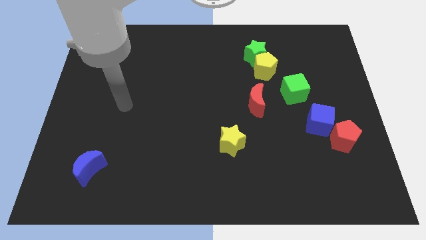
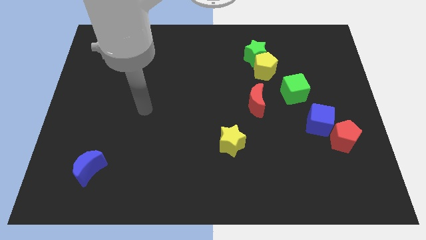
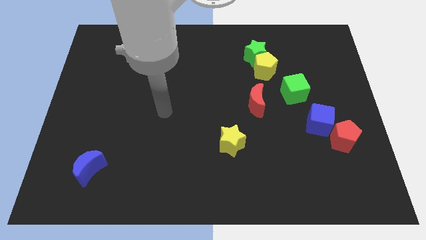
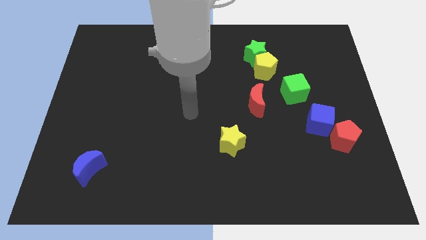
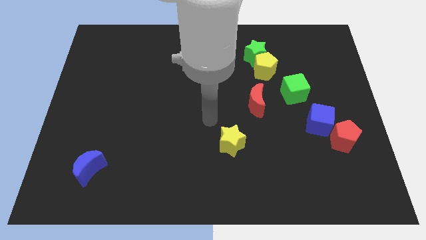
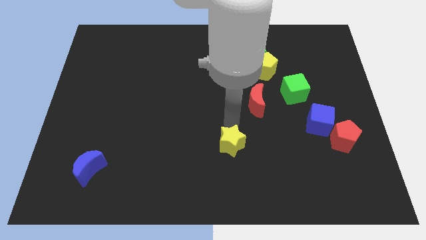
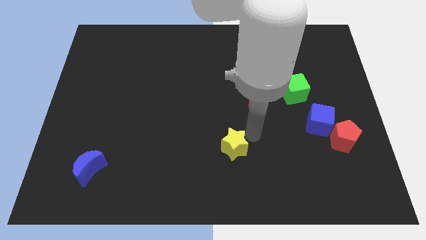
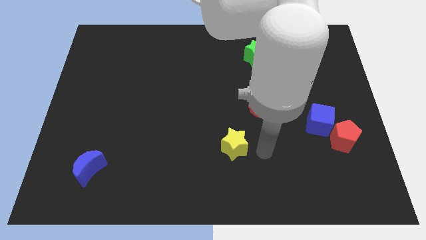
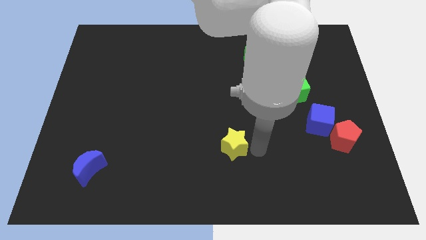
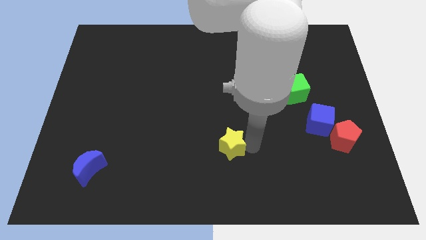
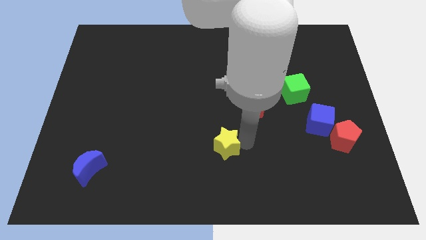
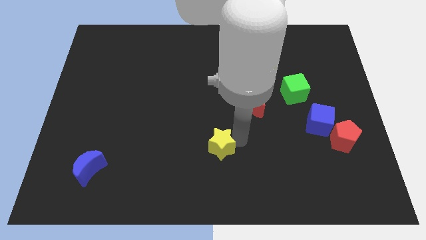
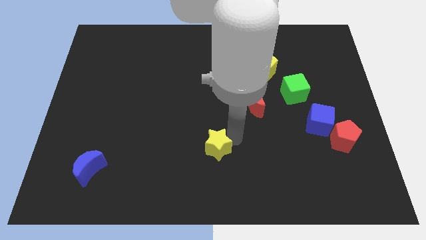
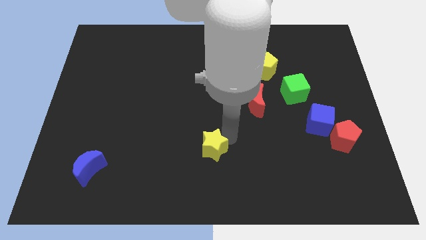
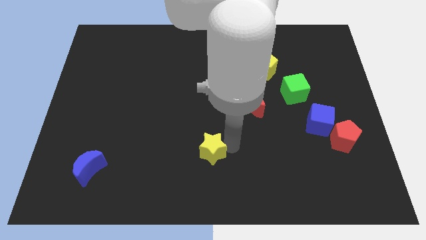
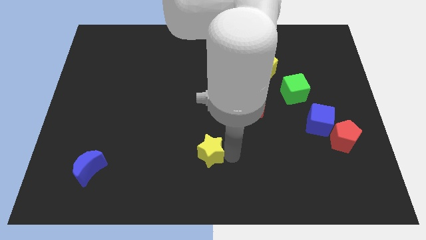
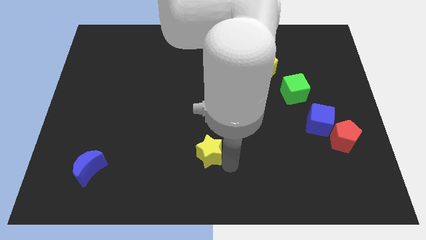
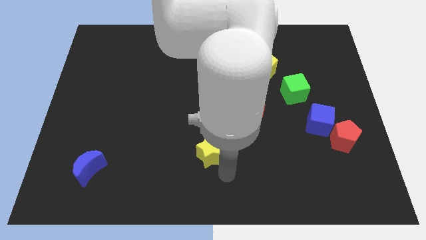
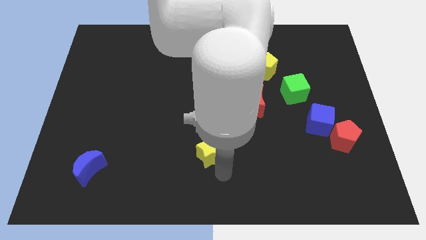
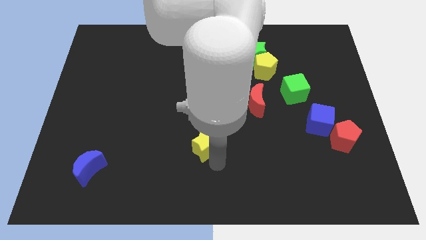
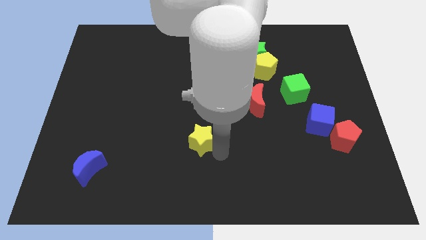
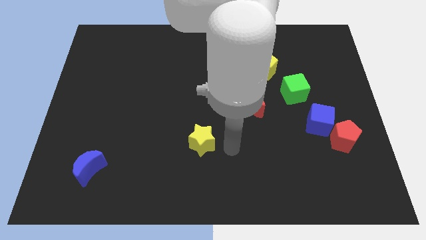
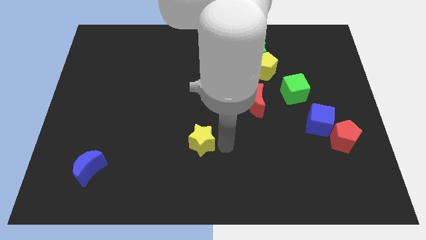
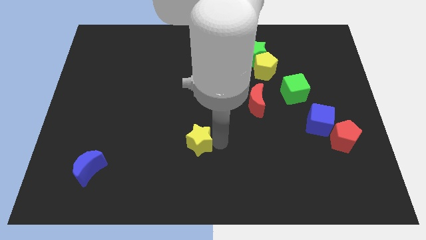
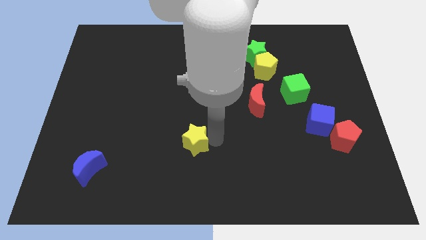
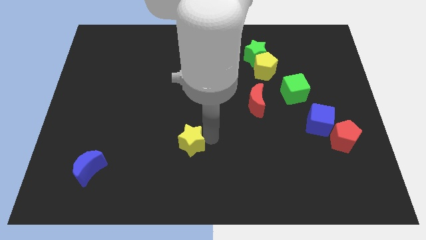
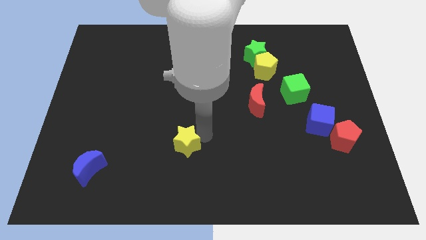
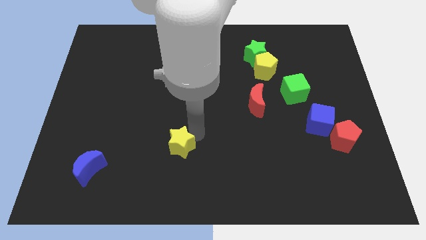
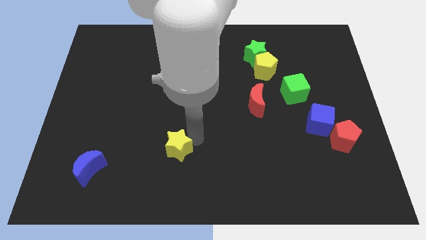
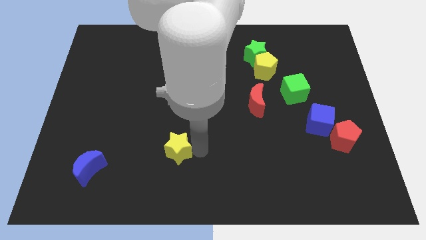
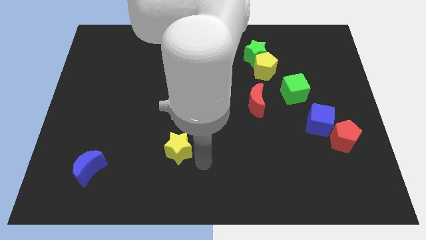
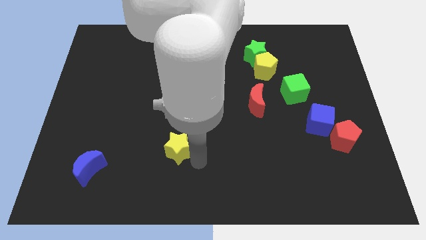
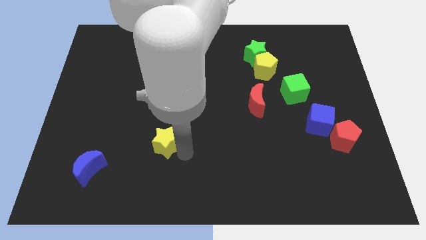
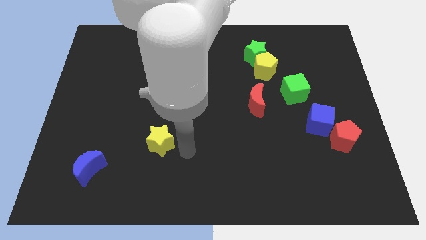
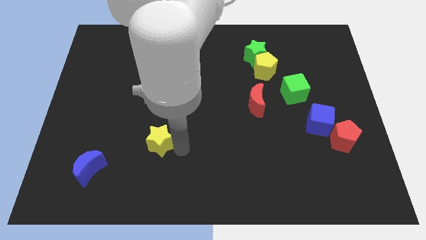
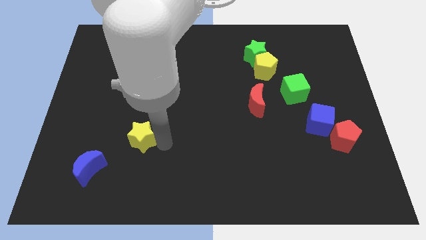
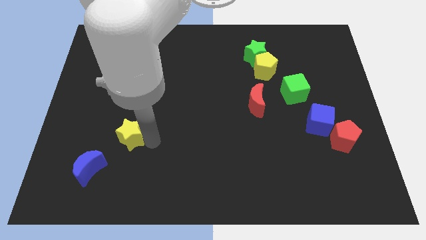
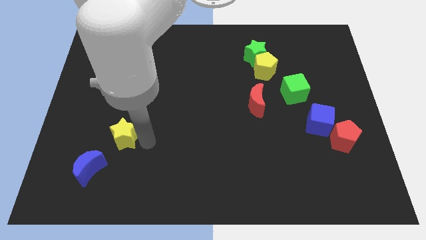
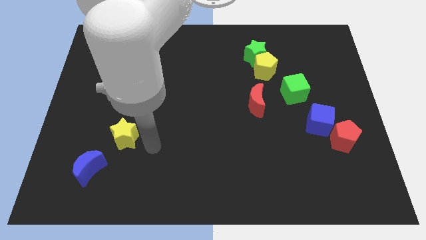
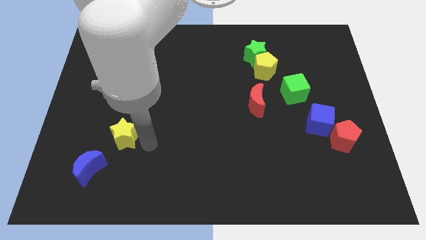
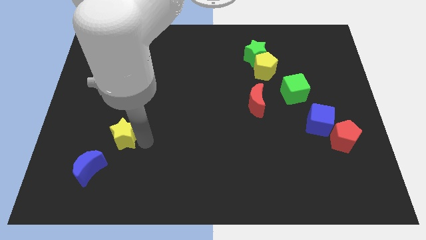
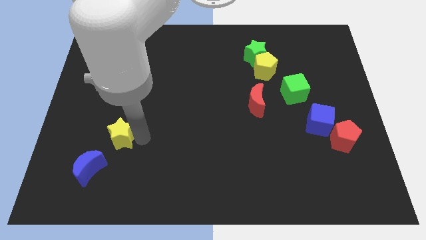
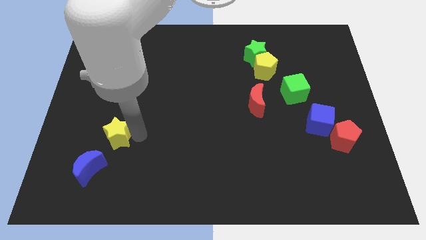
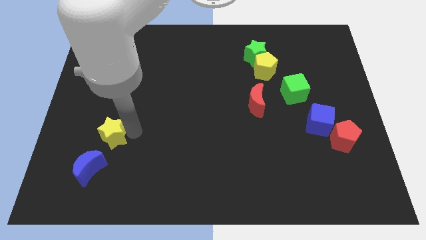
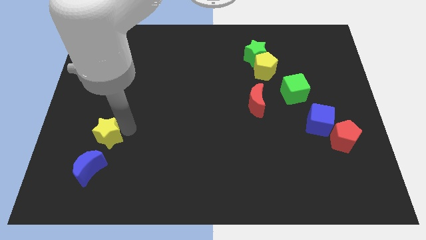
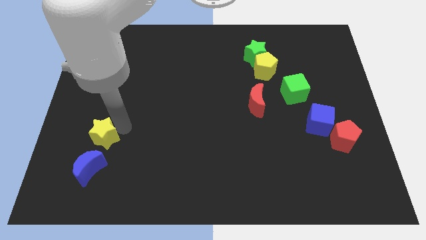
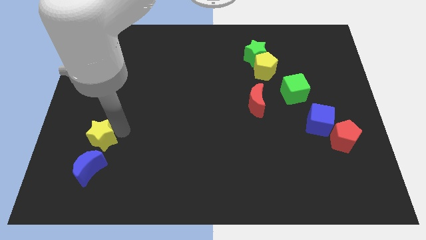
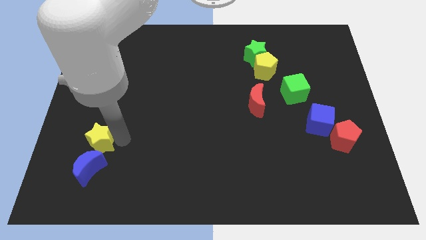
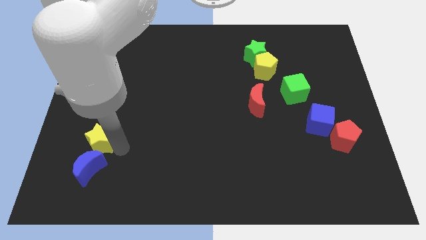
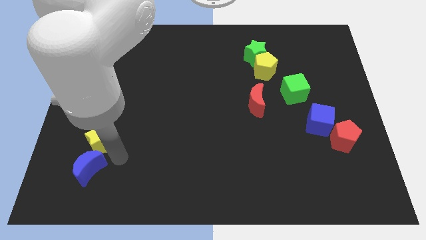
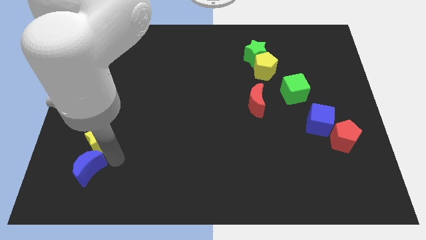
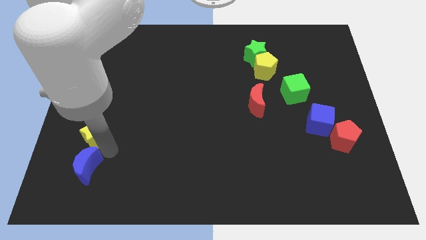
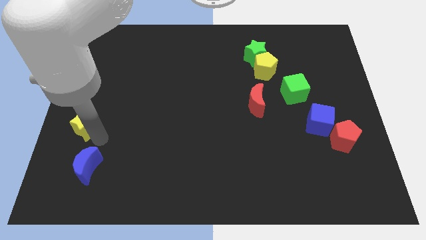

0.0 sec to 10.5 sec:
slide the yellow star to the center left

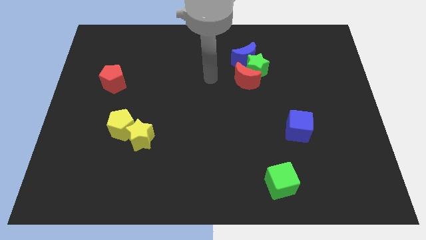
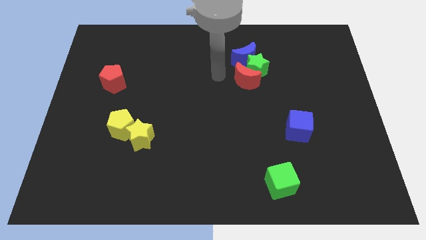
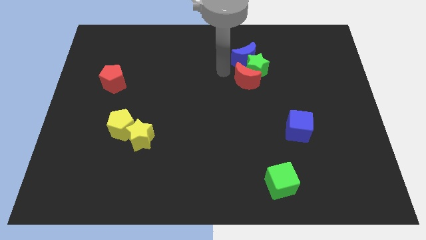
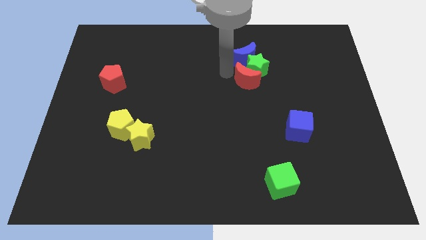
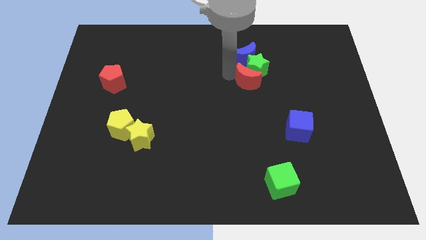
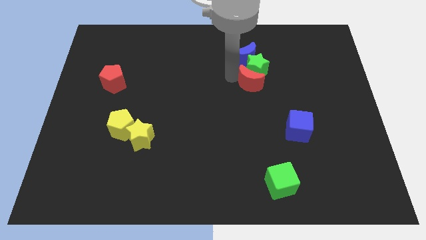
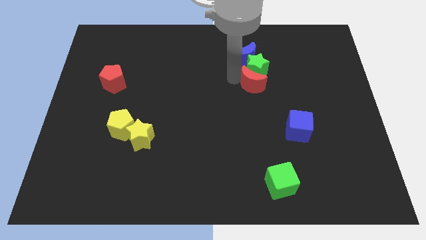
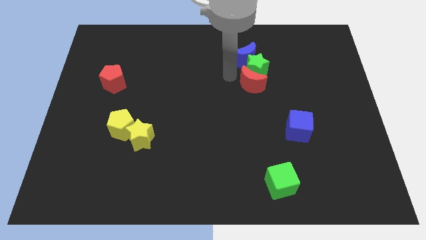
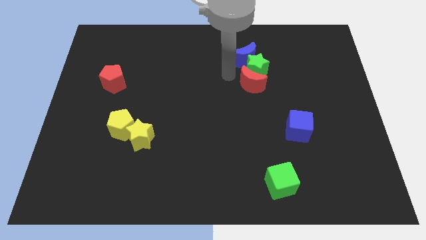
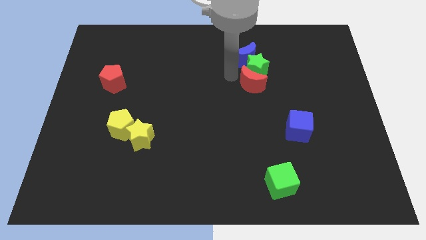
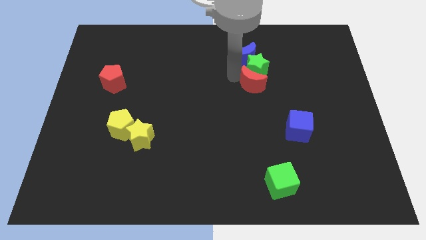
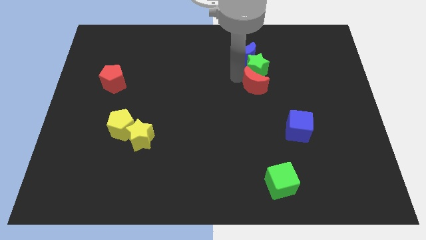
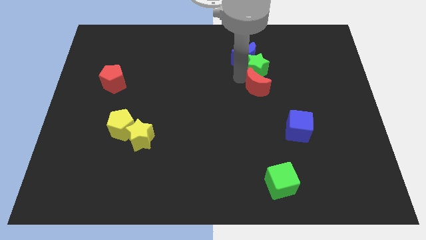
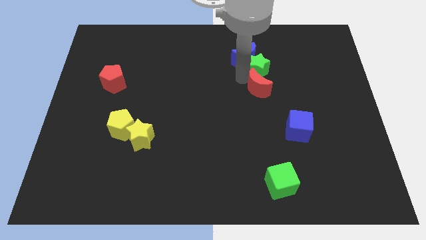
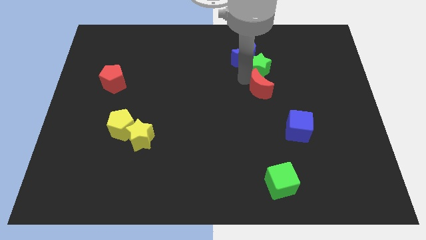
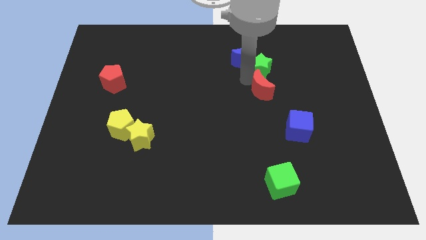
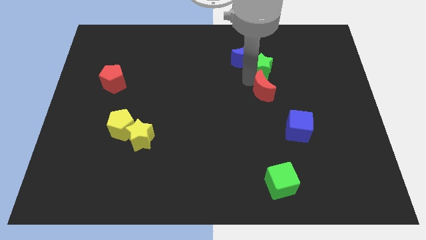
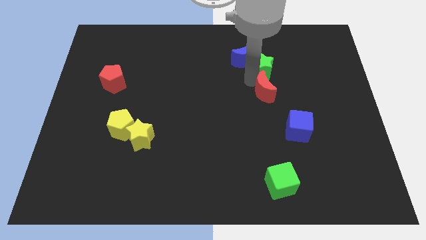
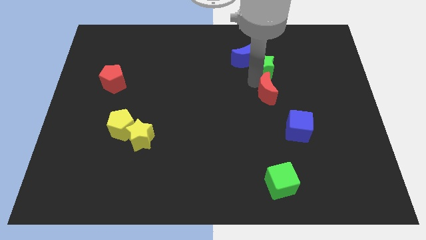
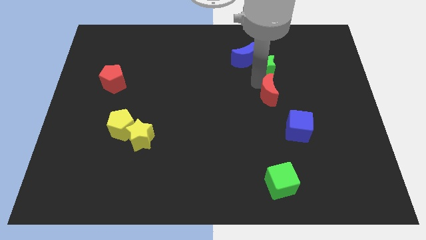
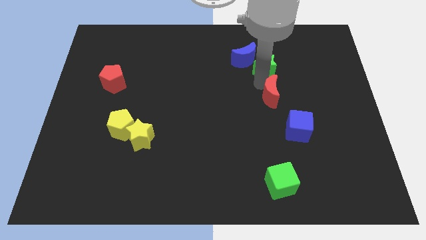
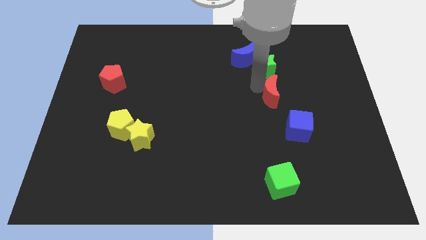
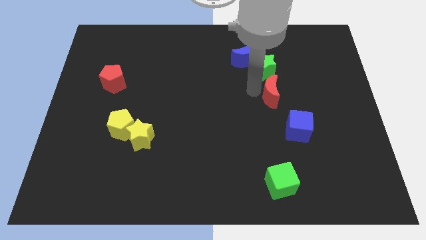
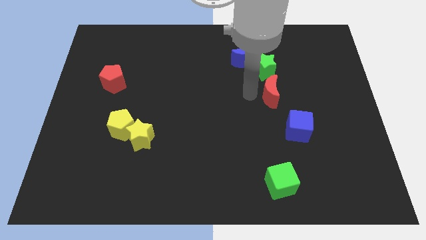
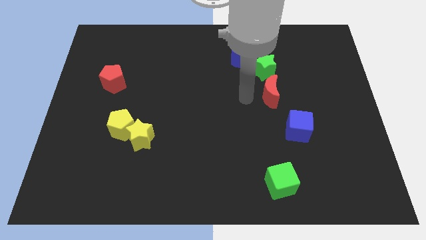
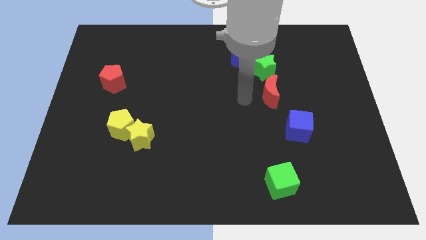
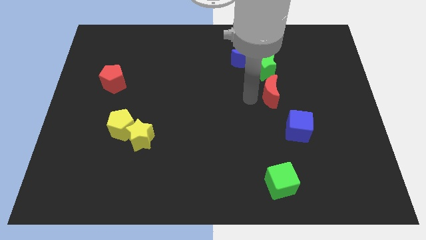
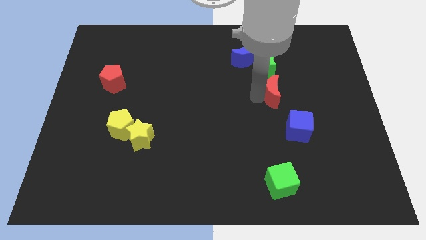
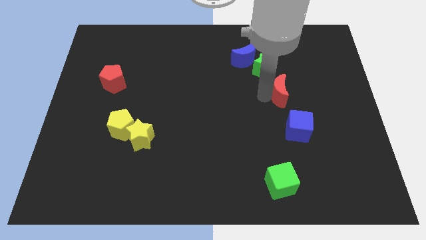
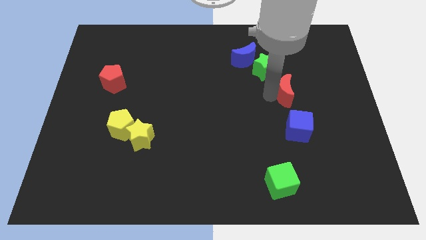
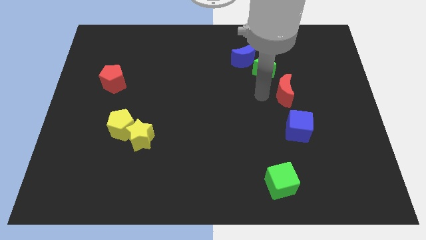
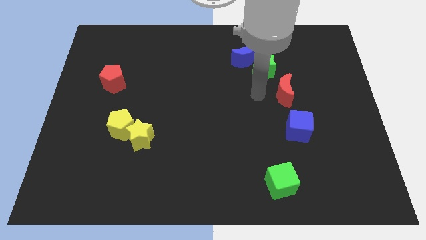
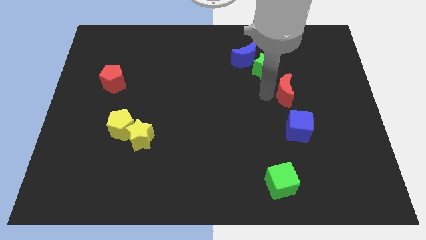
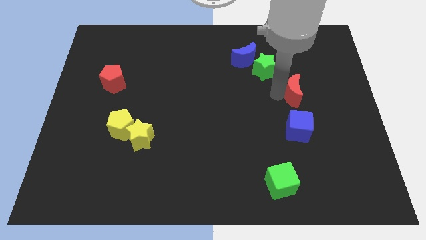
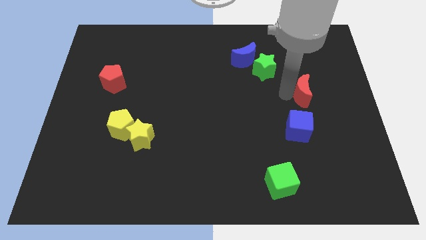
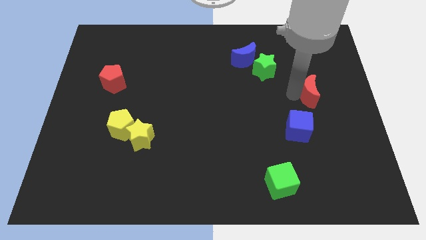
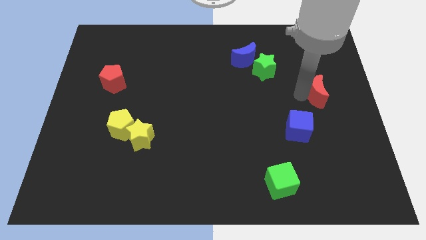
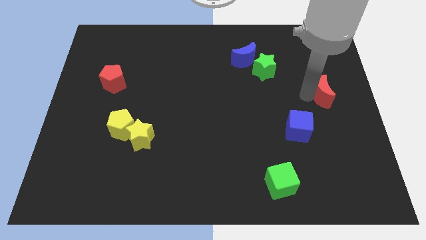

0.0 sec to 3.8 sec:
push the red moon to the right side of the board
